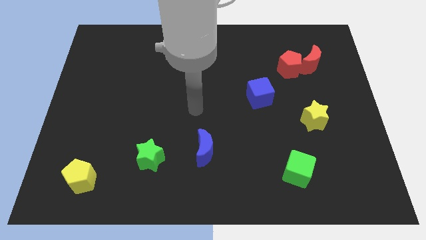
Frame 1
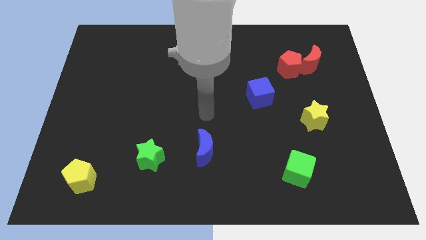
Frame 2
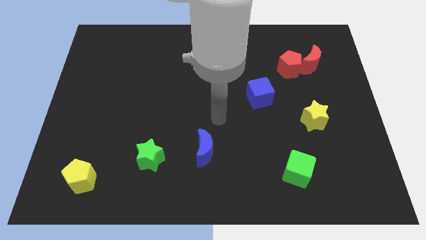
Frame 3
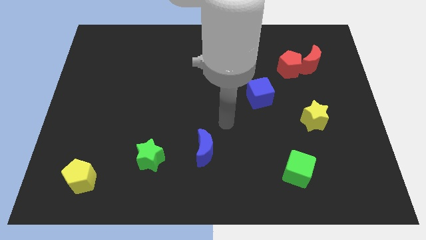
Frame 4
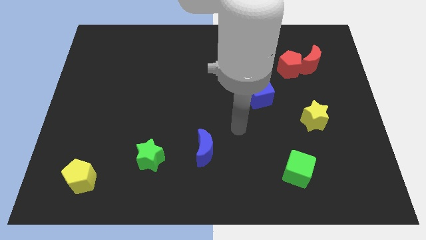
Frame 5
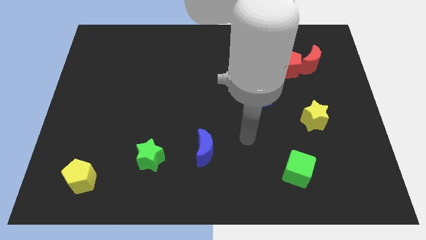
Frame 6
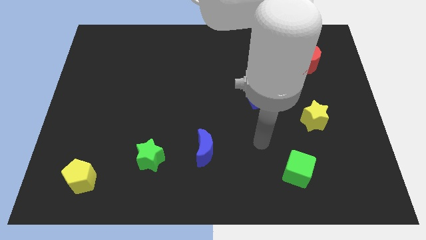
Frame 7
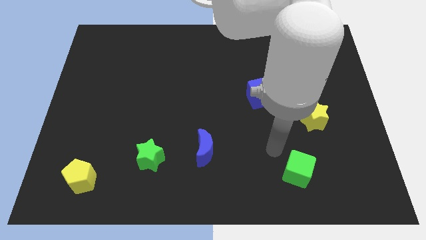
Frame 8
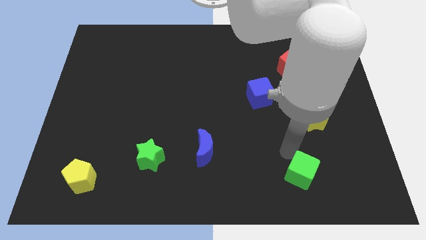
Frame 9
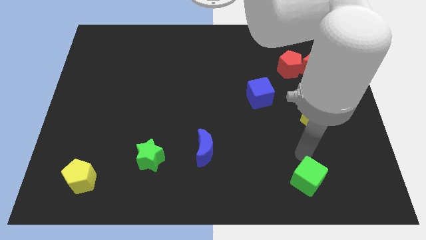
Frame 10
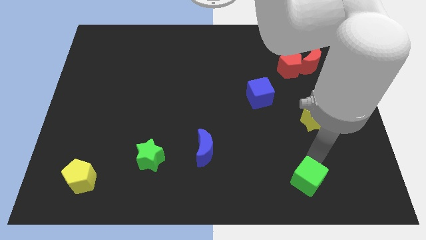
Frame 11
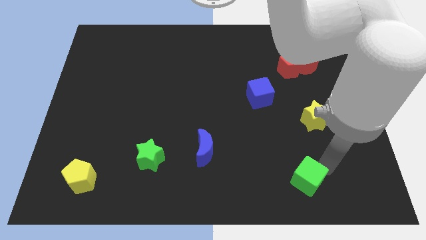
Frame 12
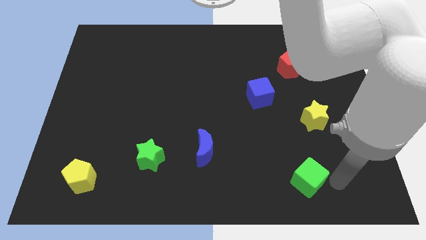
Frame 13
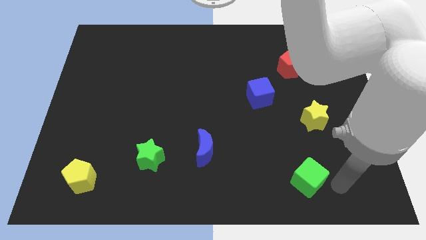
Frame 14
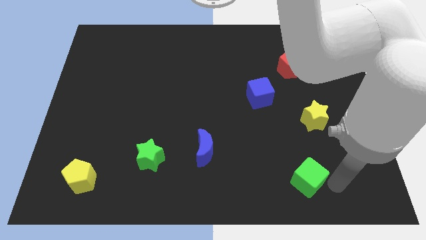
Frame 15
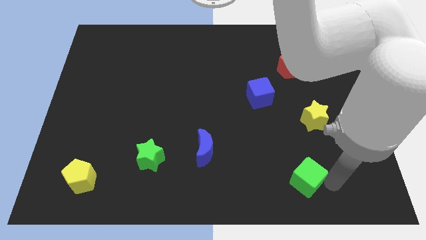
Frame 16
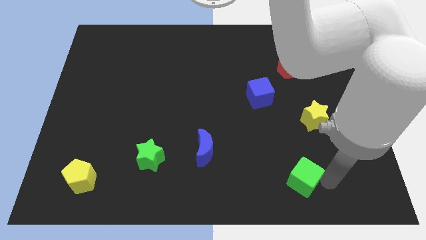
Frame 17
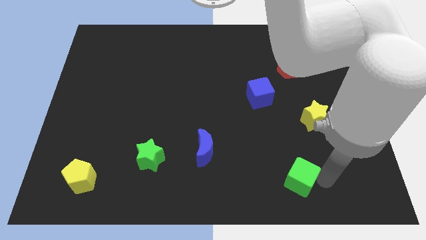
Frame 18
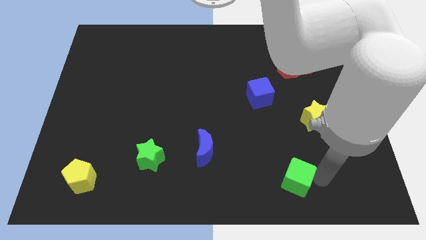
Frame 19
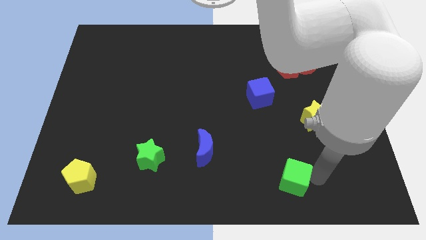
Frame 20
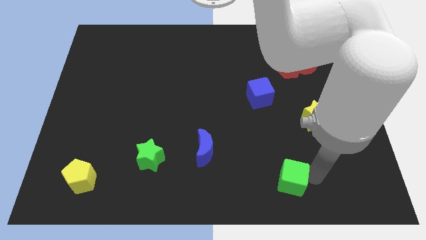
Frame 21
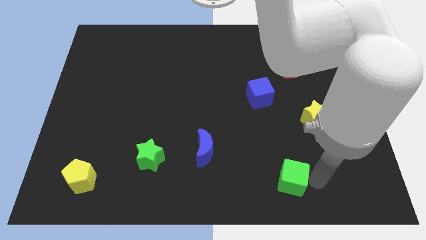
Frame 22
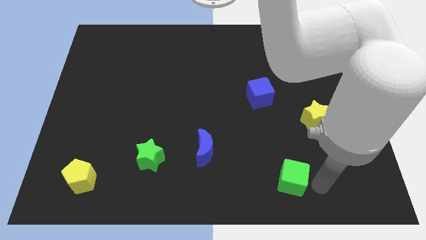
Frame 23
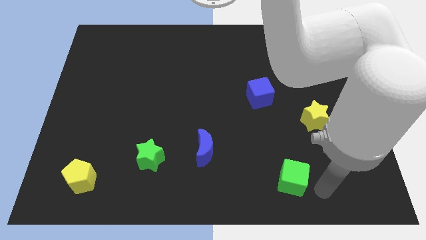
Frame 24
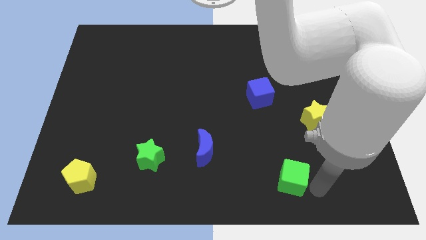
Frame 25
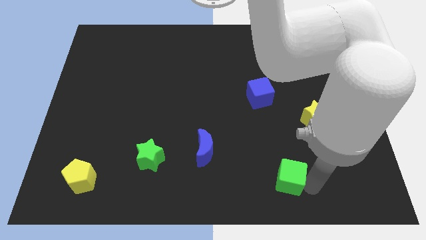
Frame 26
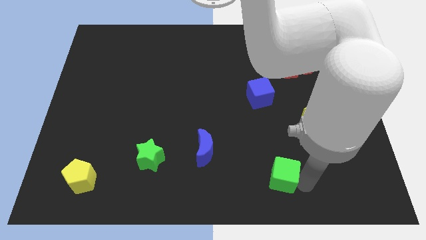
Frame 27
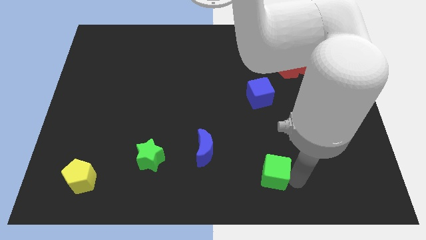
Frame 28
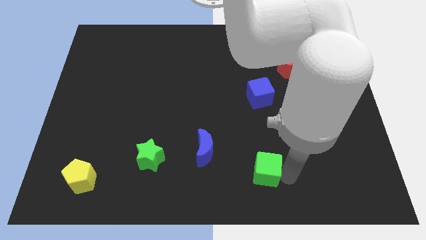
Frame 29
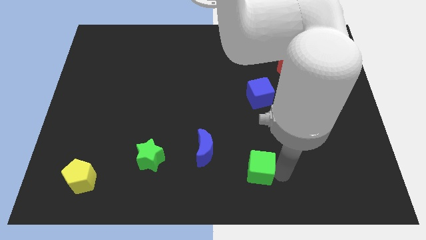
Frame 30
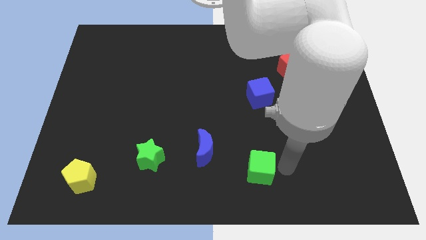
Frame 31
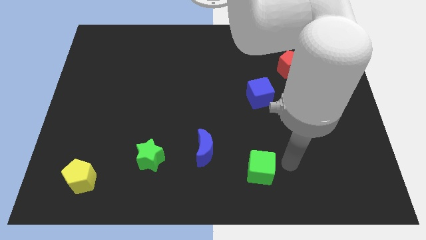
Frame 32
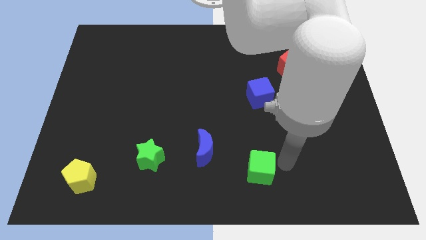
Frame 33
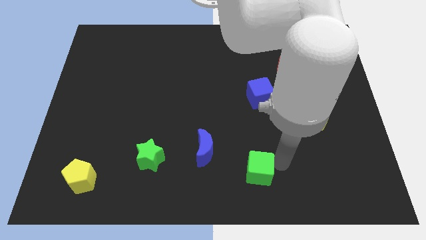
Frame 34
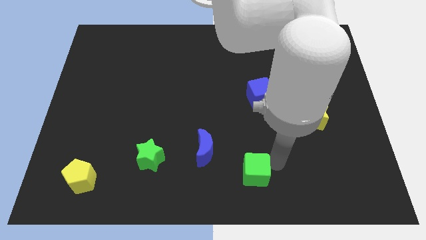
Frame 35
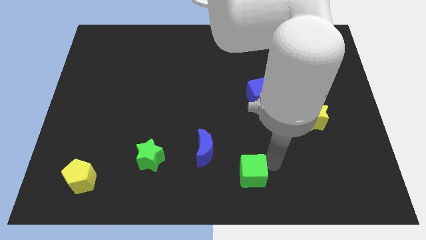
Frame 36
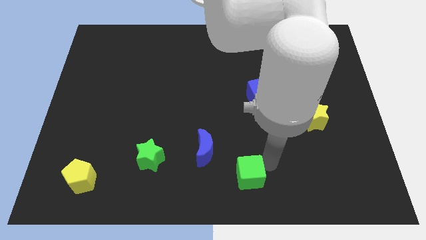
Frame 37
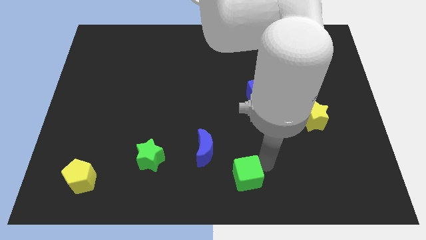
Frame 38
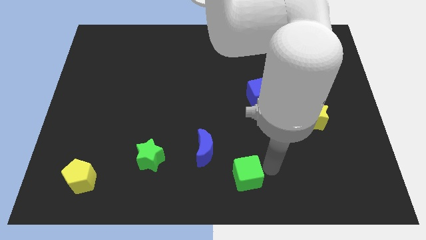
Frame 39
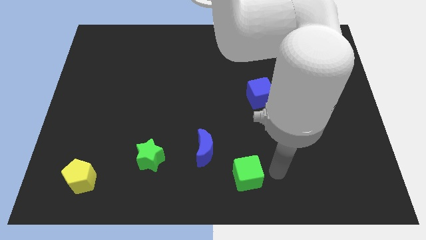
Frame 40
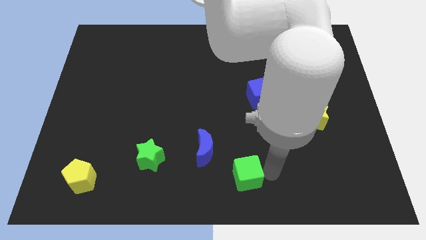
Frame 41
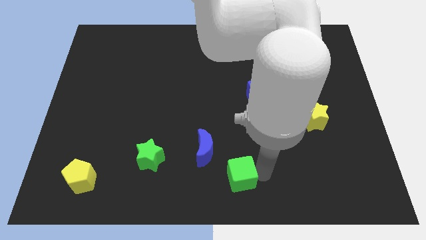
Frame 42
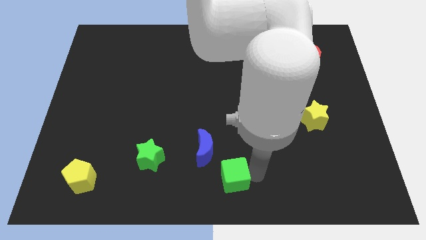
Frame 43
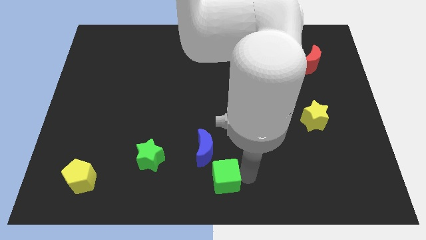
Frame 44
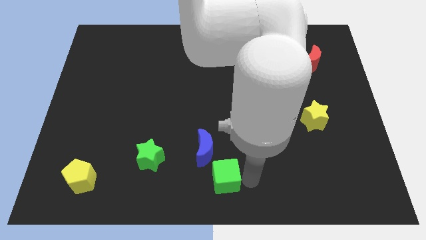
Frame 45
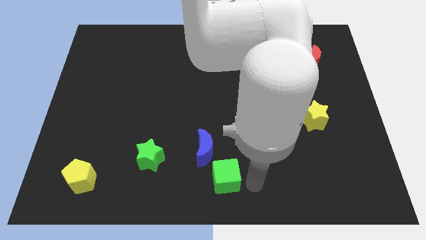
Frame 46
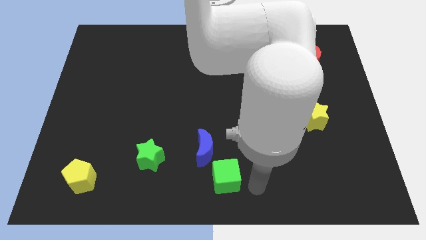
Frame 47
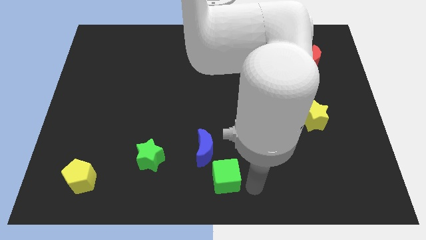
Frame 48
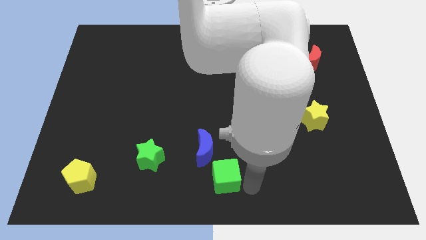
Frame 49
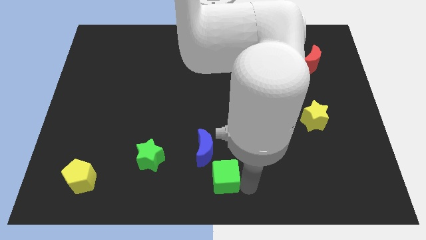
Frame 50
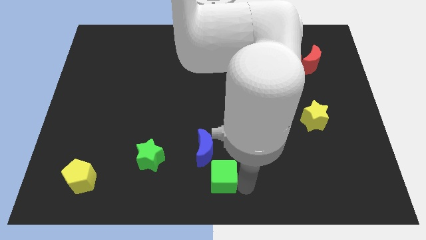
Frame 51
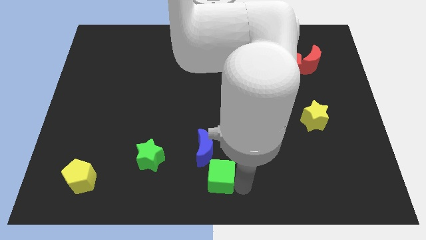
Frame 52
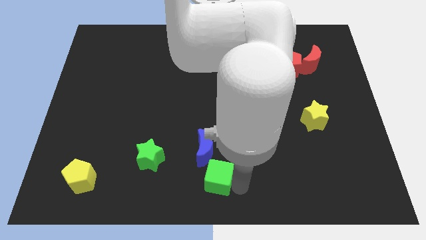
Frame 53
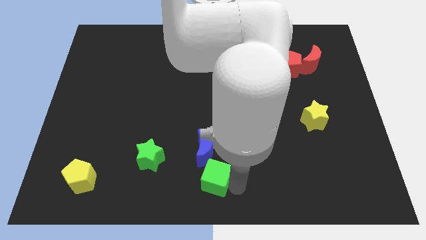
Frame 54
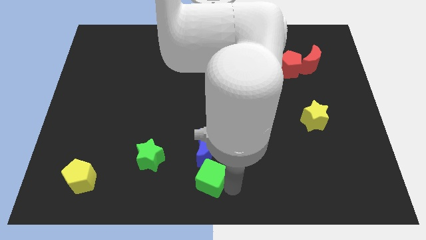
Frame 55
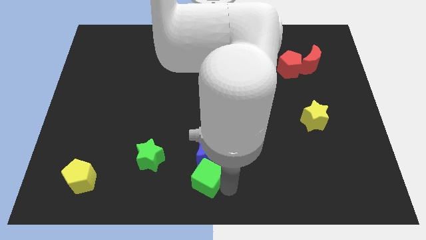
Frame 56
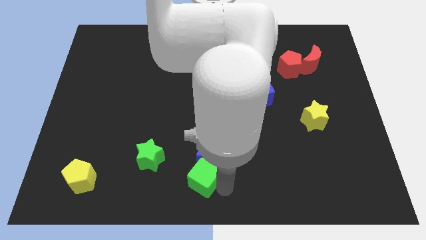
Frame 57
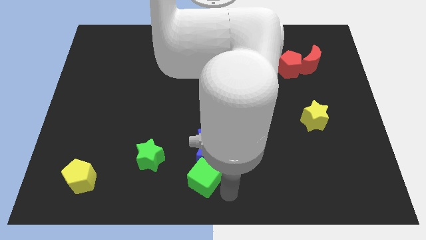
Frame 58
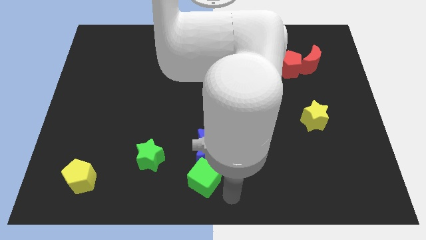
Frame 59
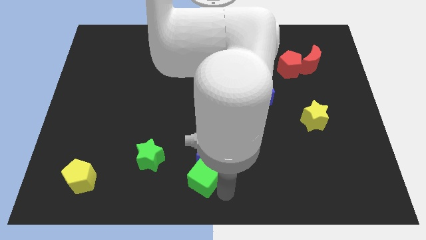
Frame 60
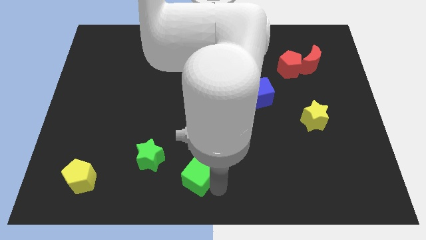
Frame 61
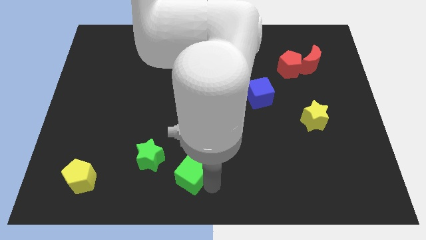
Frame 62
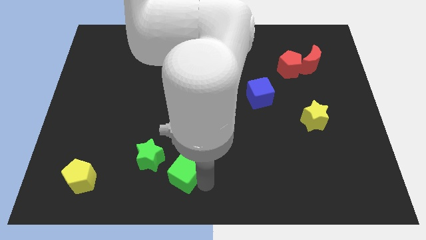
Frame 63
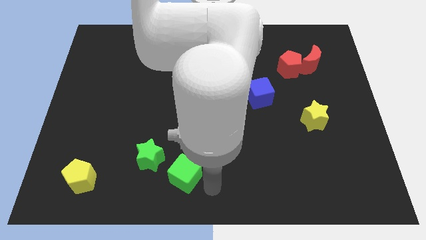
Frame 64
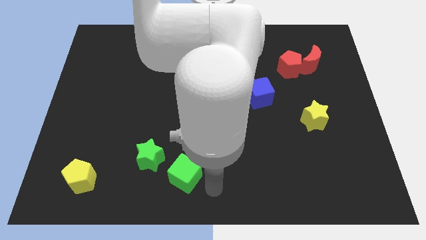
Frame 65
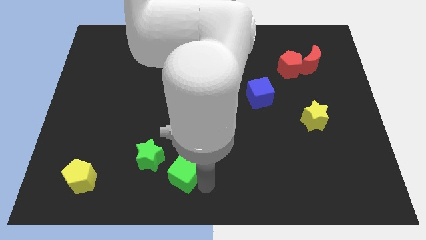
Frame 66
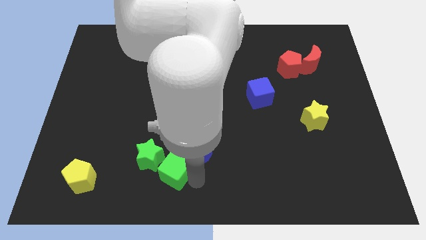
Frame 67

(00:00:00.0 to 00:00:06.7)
move the green cube next to the green star
